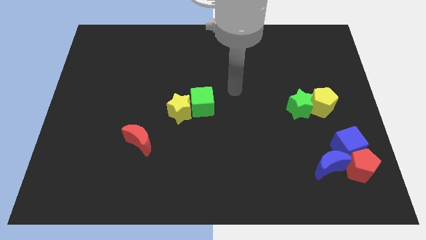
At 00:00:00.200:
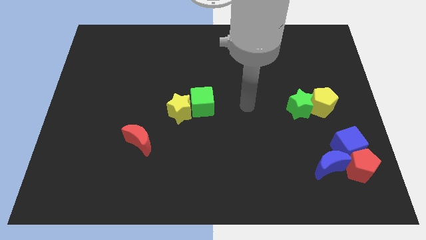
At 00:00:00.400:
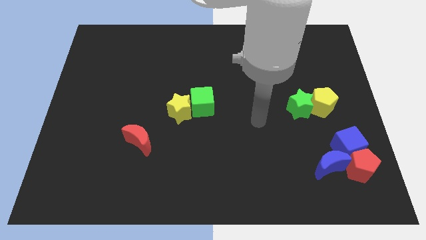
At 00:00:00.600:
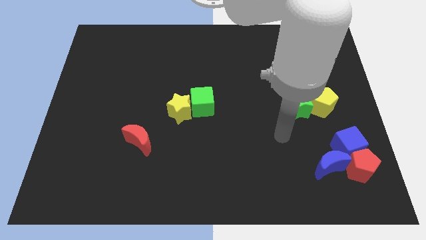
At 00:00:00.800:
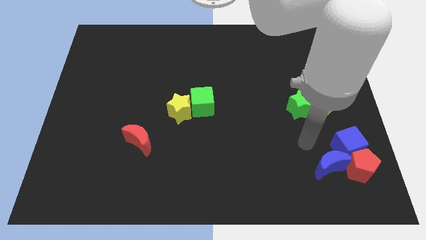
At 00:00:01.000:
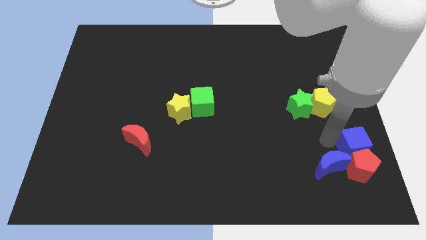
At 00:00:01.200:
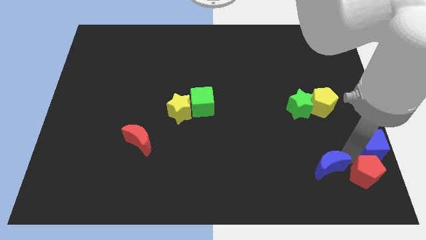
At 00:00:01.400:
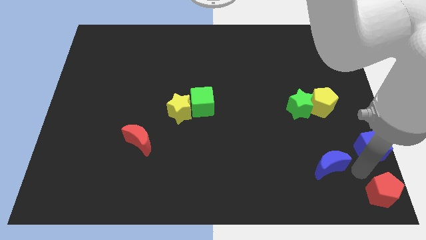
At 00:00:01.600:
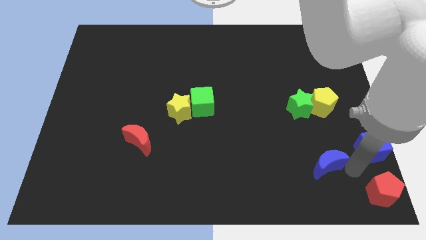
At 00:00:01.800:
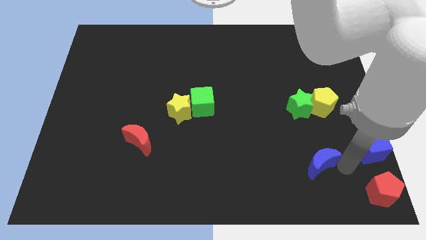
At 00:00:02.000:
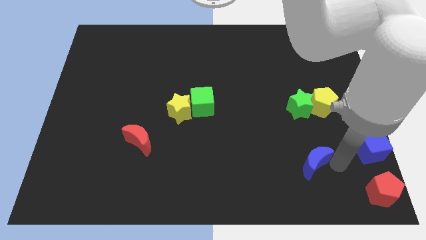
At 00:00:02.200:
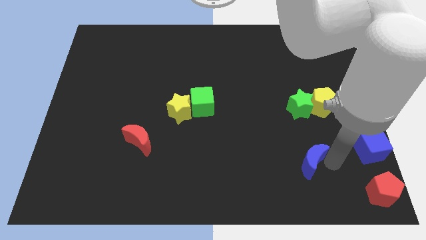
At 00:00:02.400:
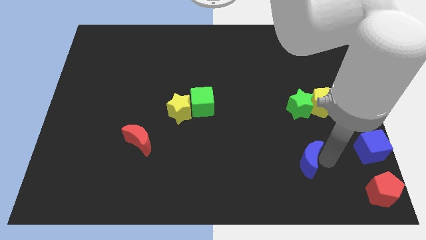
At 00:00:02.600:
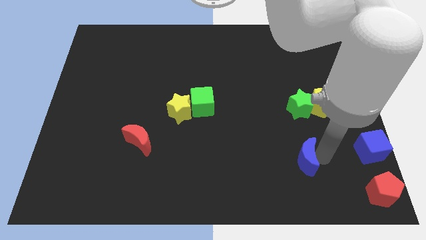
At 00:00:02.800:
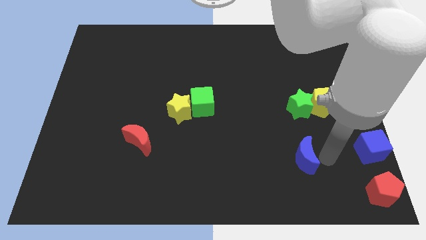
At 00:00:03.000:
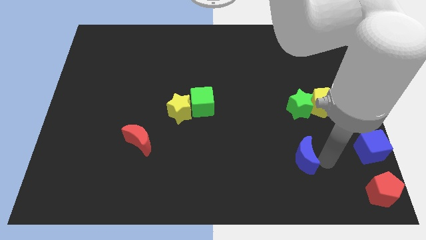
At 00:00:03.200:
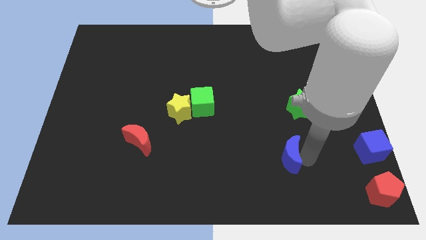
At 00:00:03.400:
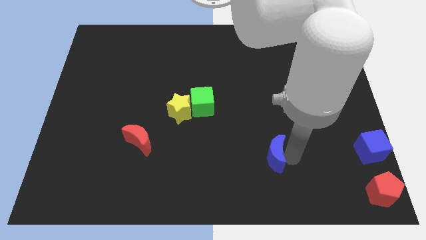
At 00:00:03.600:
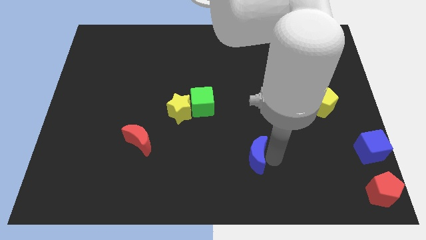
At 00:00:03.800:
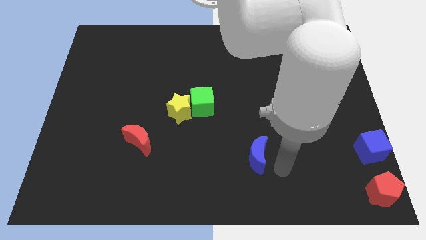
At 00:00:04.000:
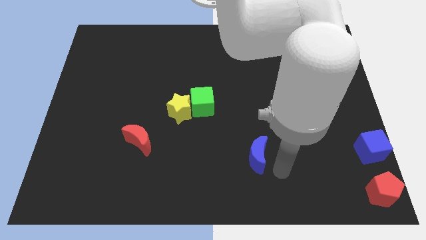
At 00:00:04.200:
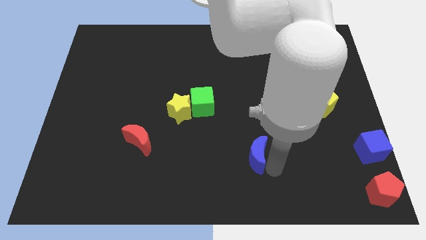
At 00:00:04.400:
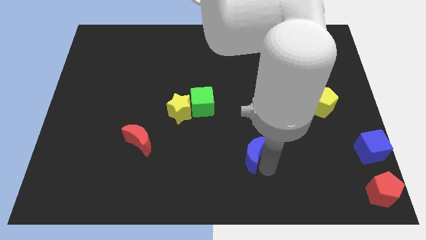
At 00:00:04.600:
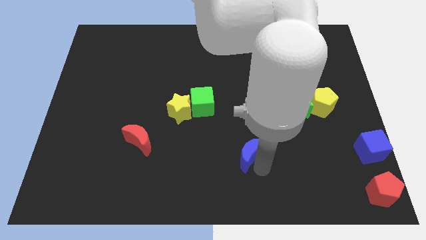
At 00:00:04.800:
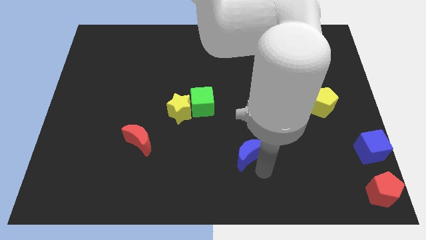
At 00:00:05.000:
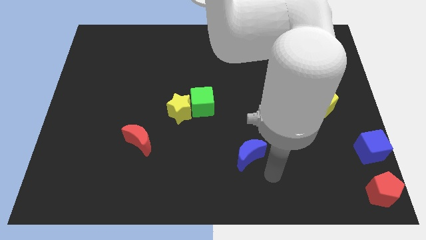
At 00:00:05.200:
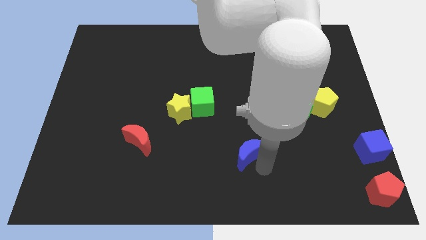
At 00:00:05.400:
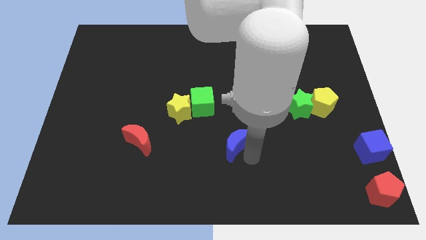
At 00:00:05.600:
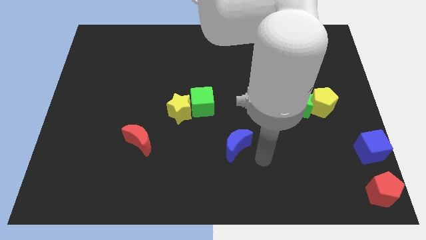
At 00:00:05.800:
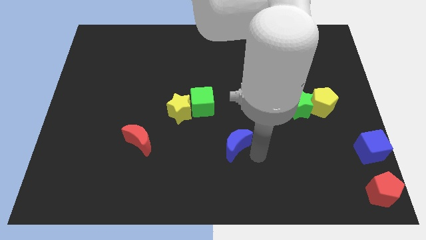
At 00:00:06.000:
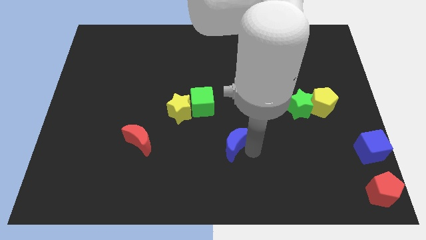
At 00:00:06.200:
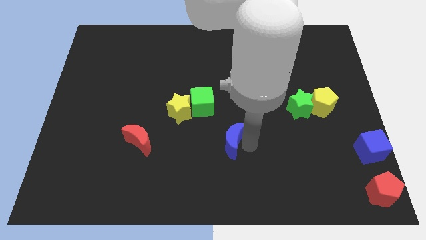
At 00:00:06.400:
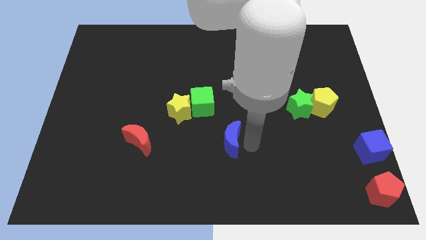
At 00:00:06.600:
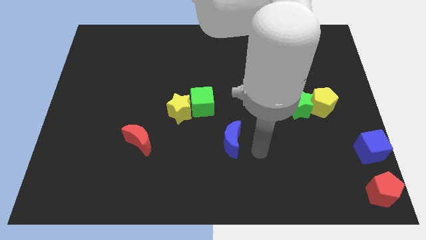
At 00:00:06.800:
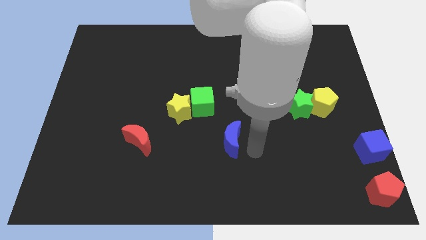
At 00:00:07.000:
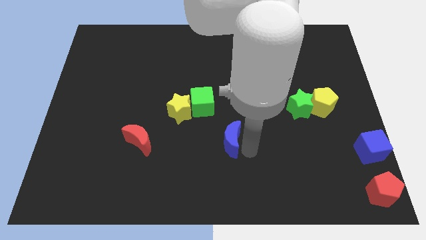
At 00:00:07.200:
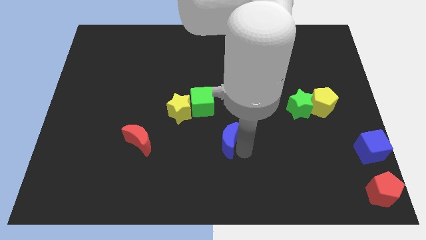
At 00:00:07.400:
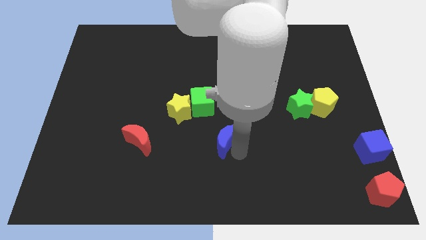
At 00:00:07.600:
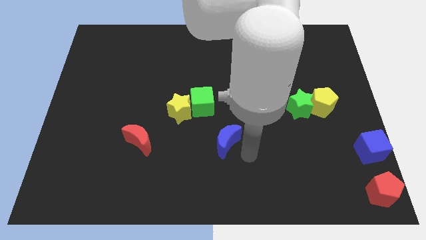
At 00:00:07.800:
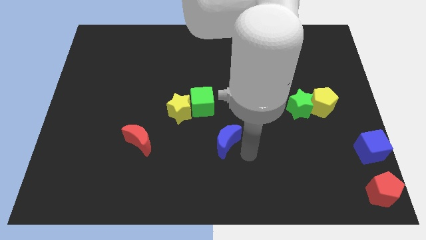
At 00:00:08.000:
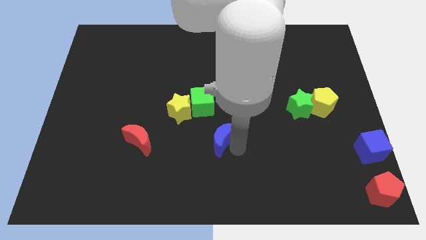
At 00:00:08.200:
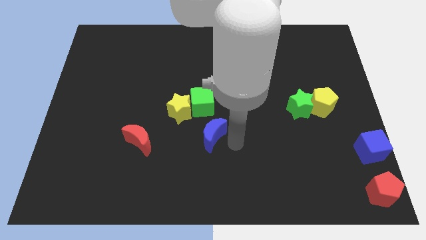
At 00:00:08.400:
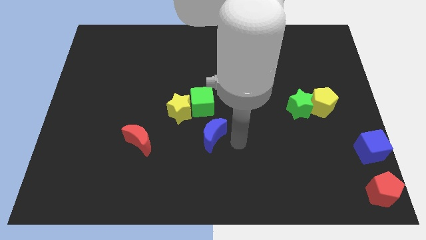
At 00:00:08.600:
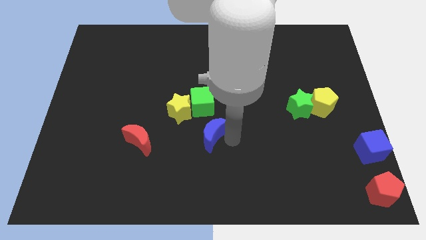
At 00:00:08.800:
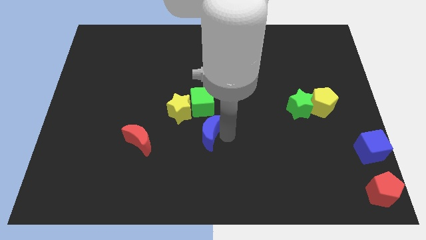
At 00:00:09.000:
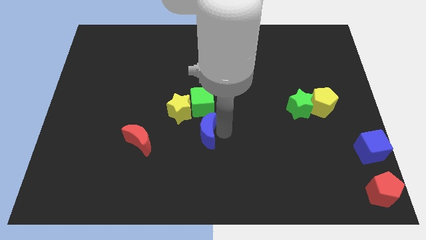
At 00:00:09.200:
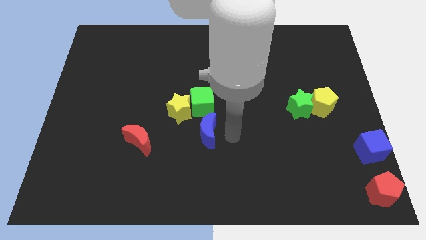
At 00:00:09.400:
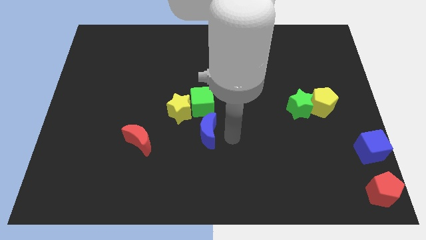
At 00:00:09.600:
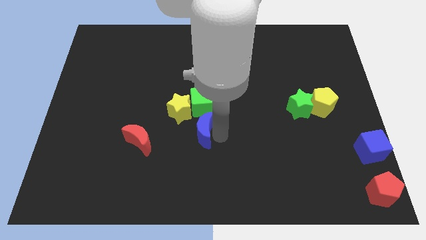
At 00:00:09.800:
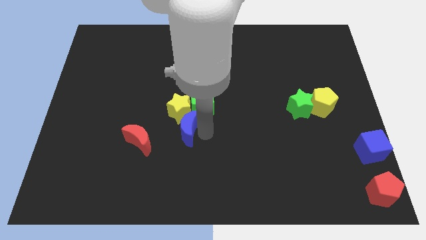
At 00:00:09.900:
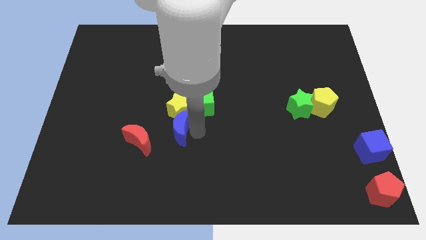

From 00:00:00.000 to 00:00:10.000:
put the blue moon to the bottom left of the yellow star

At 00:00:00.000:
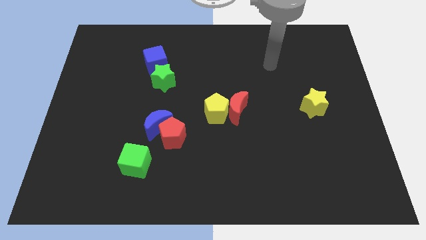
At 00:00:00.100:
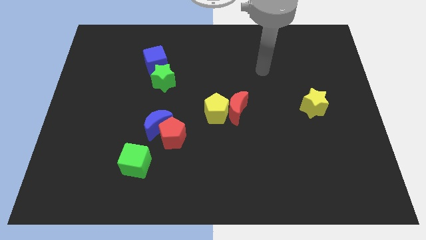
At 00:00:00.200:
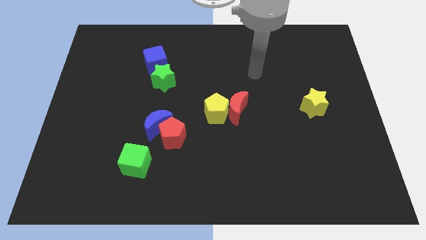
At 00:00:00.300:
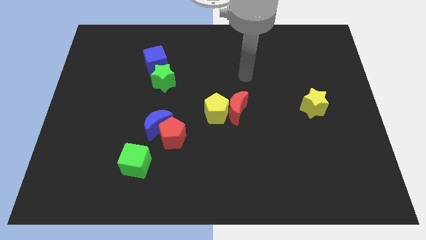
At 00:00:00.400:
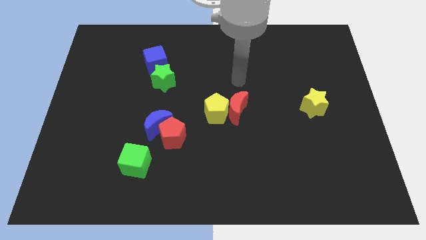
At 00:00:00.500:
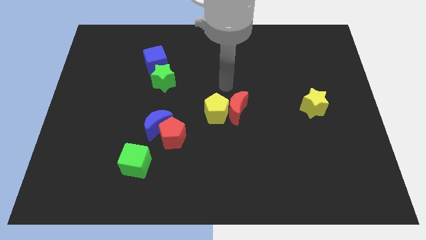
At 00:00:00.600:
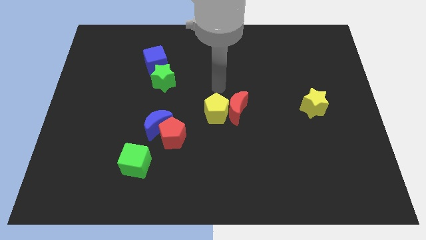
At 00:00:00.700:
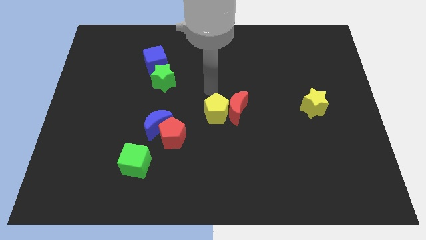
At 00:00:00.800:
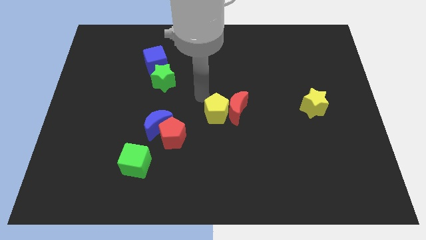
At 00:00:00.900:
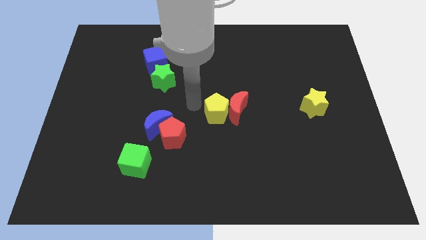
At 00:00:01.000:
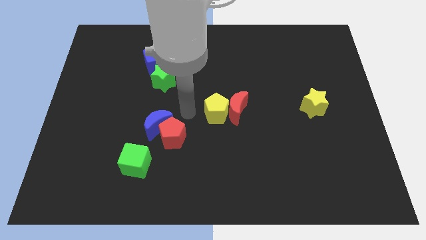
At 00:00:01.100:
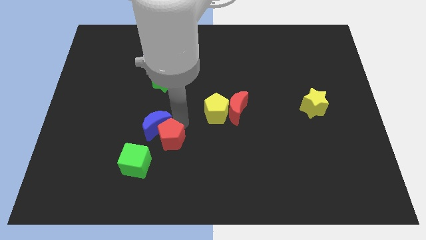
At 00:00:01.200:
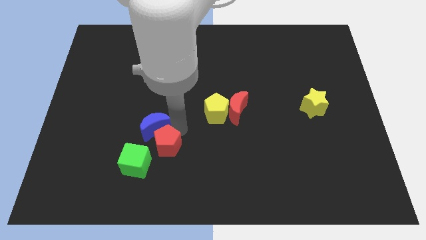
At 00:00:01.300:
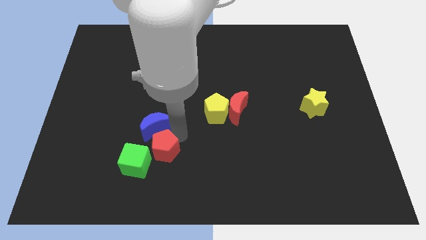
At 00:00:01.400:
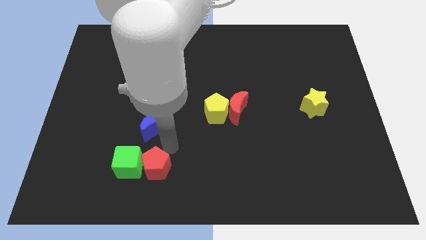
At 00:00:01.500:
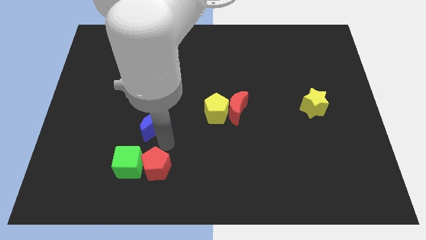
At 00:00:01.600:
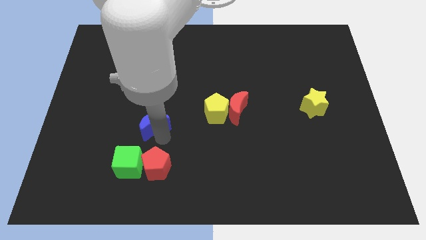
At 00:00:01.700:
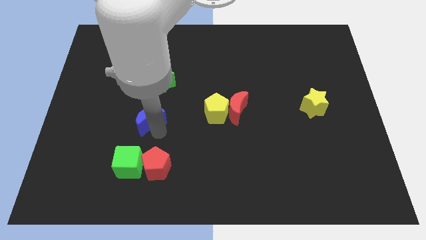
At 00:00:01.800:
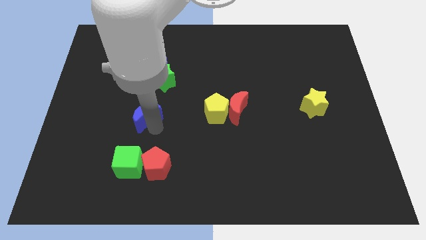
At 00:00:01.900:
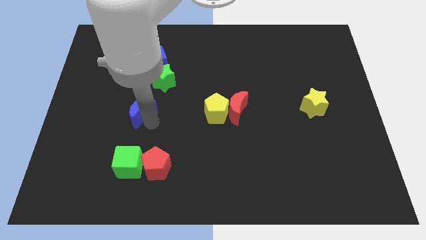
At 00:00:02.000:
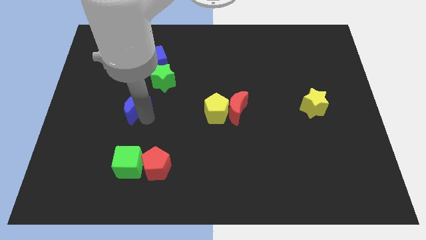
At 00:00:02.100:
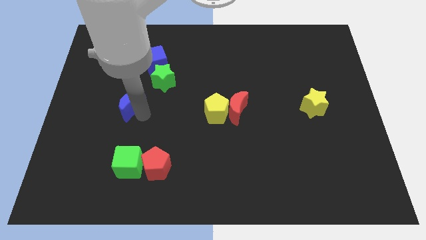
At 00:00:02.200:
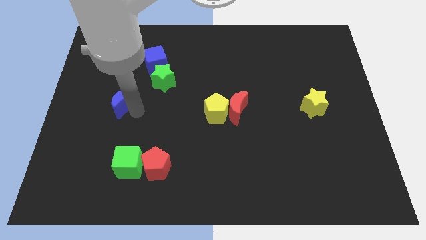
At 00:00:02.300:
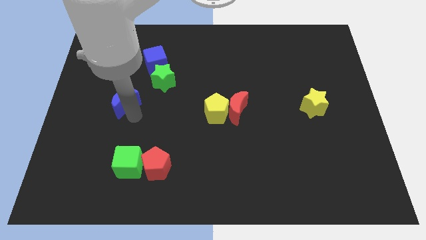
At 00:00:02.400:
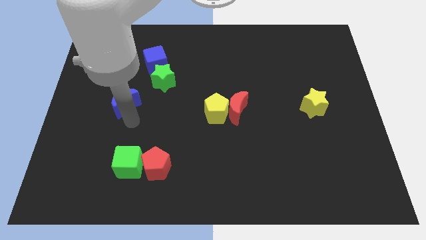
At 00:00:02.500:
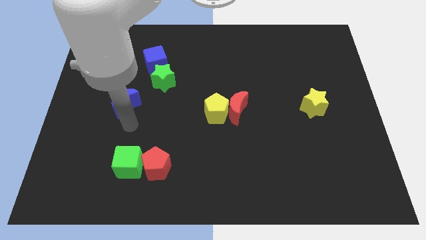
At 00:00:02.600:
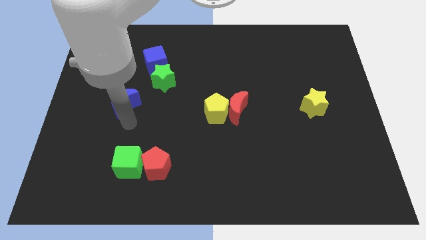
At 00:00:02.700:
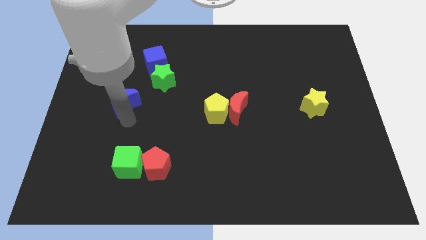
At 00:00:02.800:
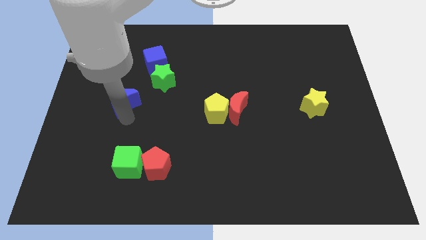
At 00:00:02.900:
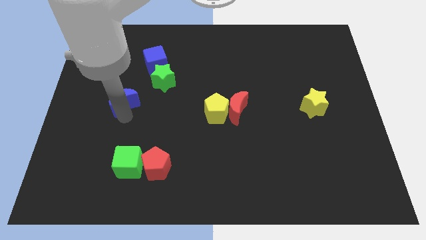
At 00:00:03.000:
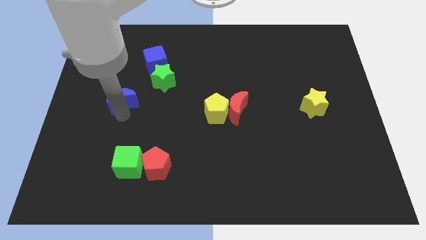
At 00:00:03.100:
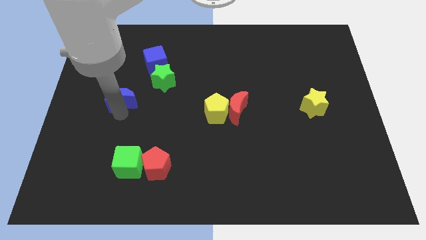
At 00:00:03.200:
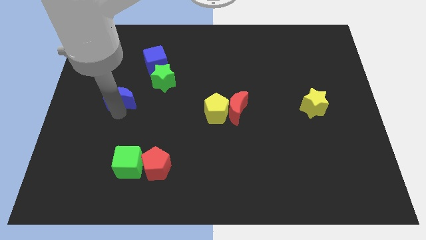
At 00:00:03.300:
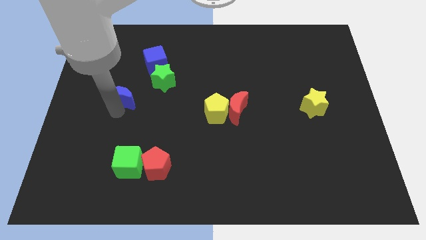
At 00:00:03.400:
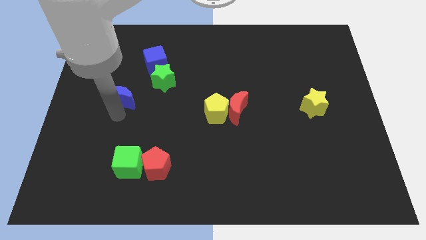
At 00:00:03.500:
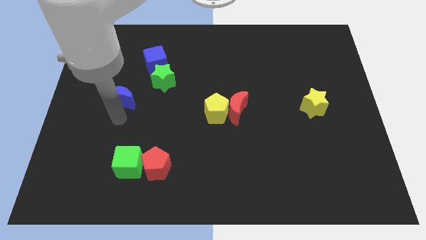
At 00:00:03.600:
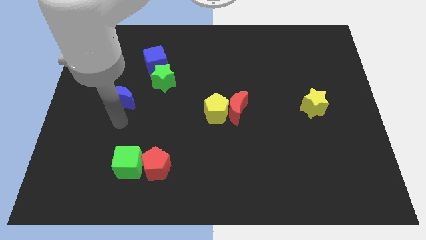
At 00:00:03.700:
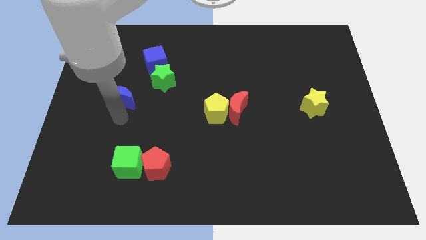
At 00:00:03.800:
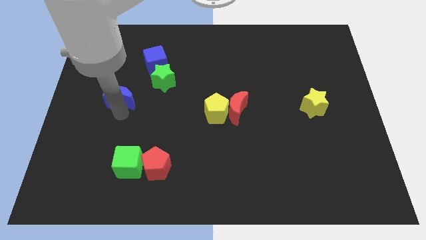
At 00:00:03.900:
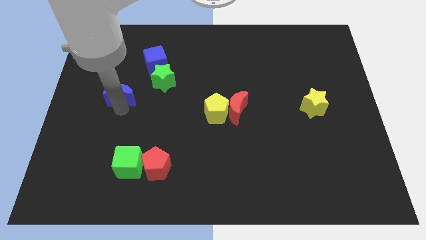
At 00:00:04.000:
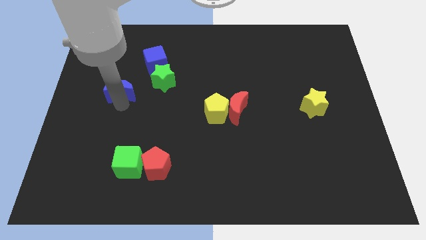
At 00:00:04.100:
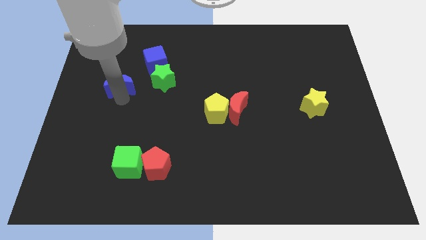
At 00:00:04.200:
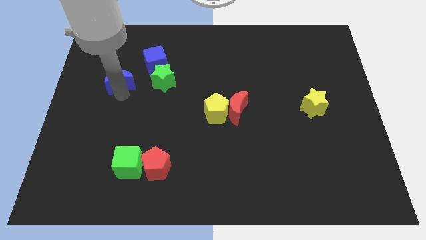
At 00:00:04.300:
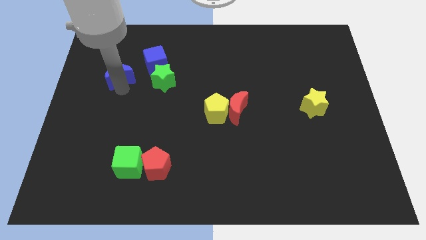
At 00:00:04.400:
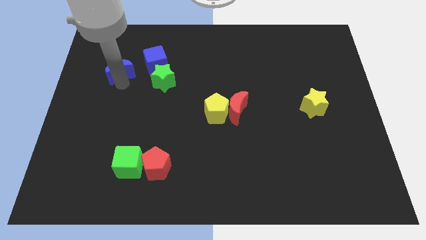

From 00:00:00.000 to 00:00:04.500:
push the blue moon to the left of the blue cube
